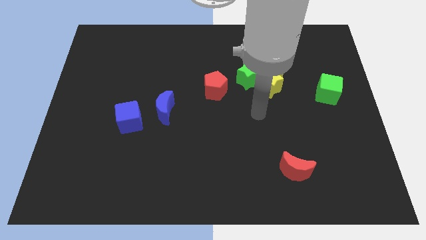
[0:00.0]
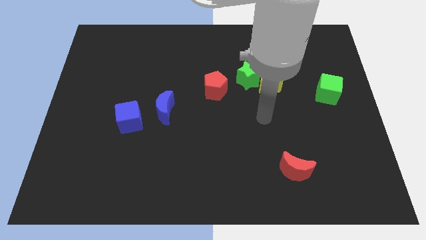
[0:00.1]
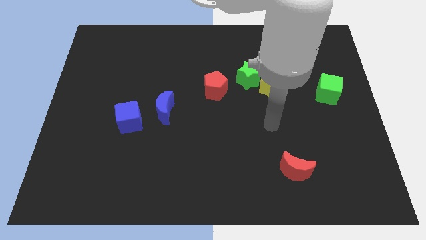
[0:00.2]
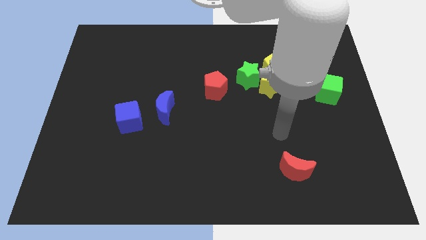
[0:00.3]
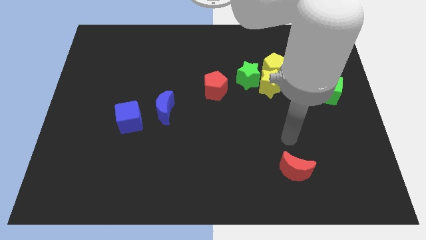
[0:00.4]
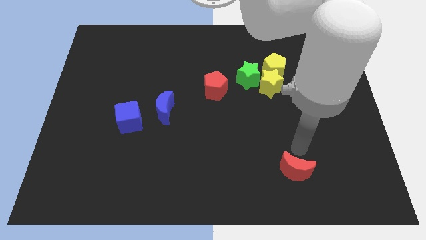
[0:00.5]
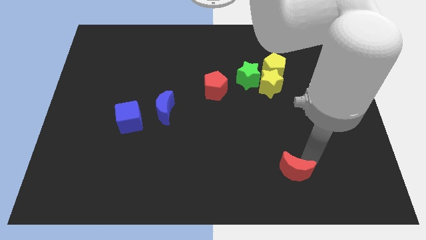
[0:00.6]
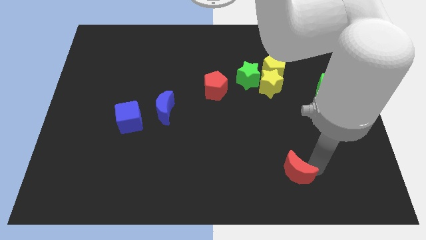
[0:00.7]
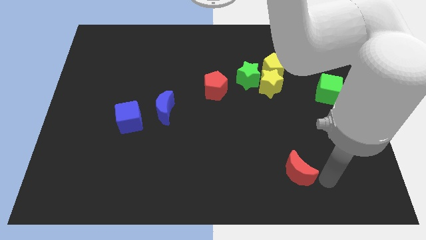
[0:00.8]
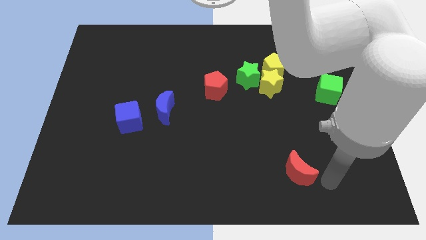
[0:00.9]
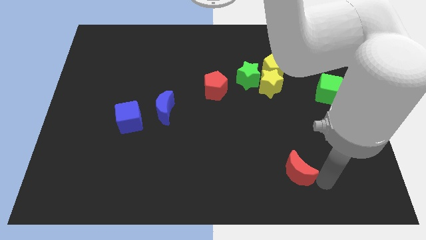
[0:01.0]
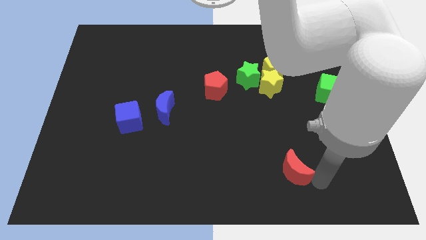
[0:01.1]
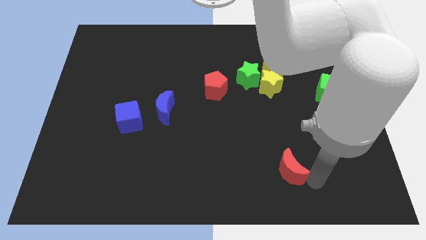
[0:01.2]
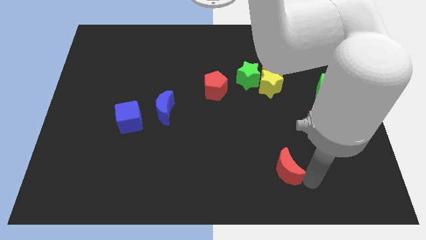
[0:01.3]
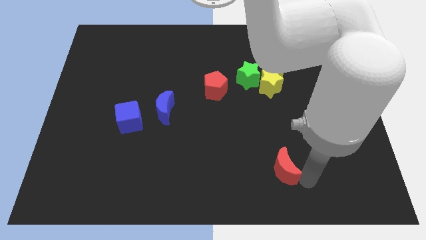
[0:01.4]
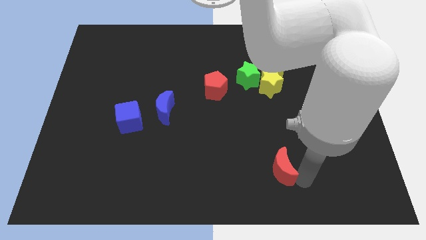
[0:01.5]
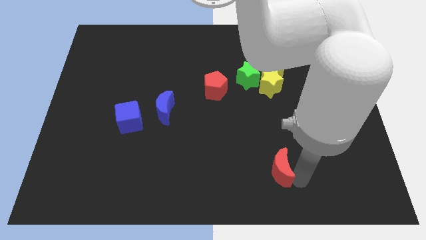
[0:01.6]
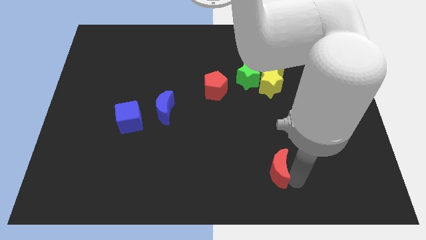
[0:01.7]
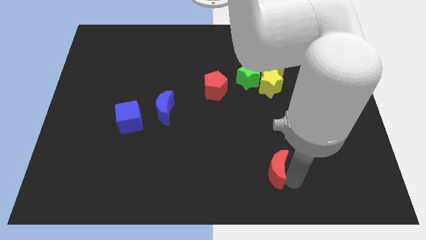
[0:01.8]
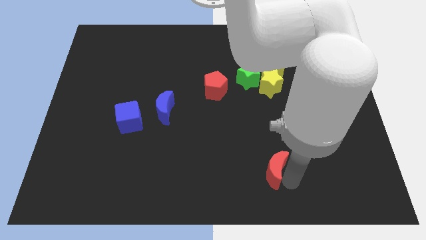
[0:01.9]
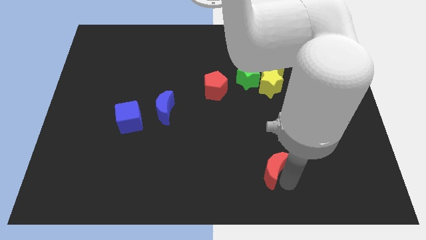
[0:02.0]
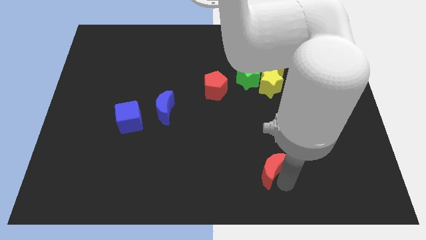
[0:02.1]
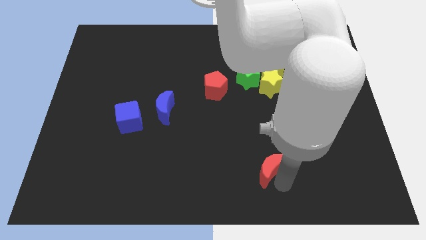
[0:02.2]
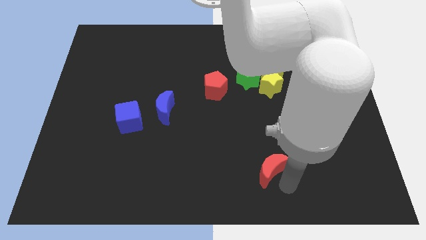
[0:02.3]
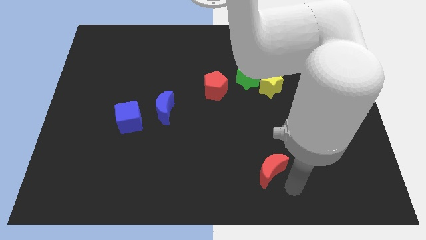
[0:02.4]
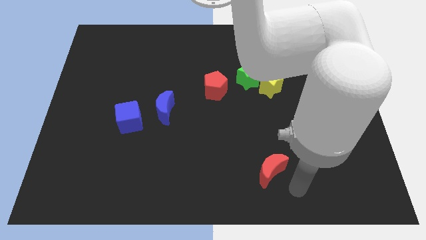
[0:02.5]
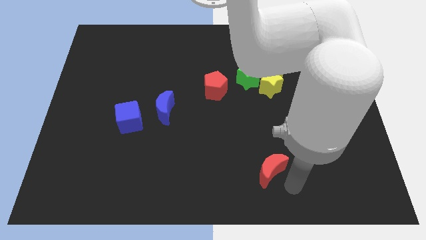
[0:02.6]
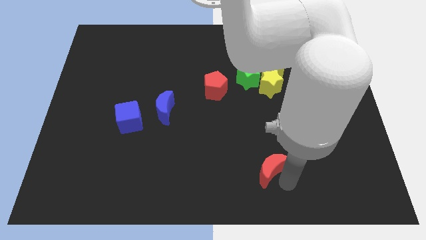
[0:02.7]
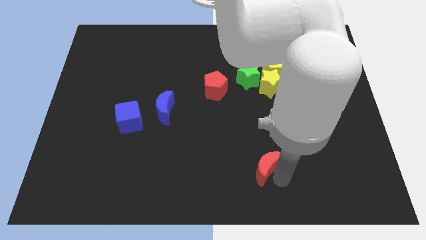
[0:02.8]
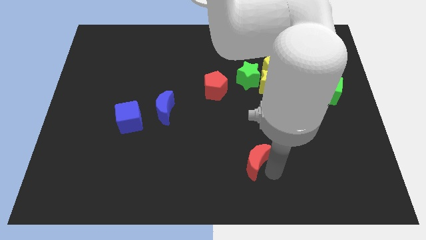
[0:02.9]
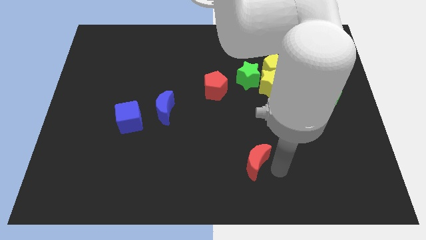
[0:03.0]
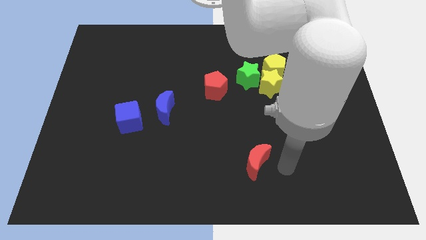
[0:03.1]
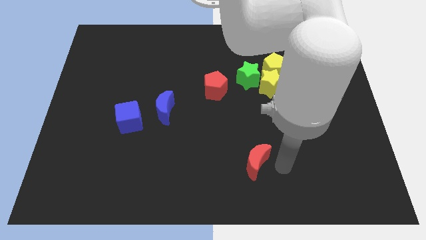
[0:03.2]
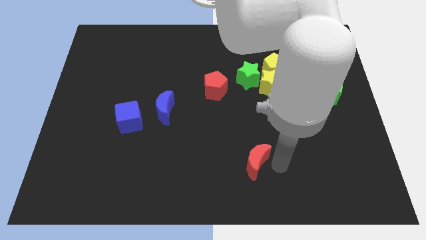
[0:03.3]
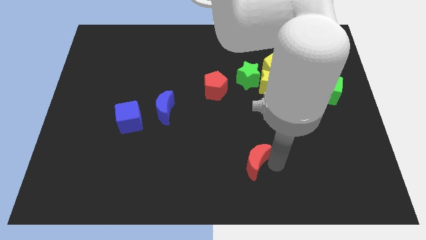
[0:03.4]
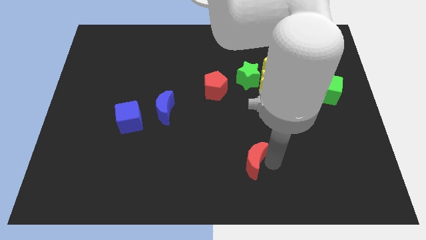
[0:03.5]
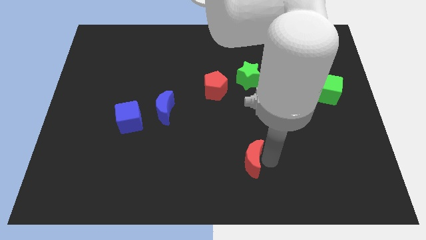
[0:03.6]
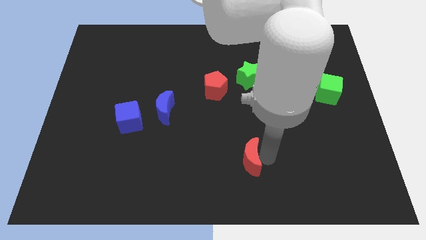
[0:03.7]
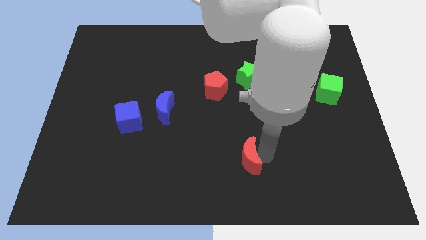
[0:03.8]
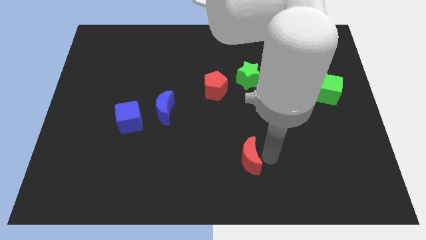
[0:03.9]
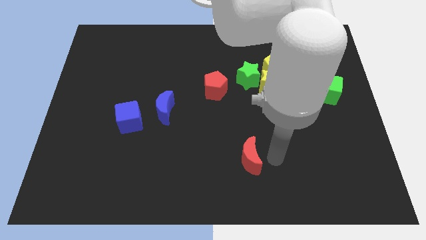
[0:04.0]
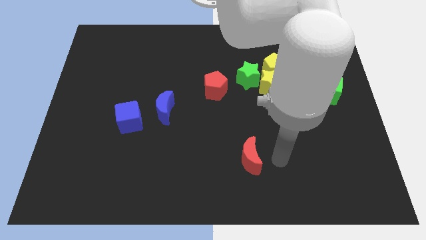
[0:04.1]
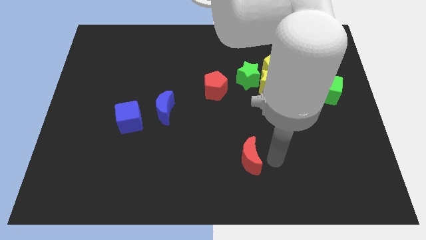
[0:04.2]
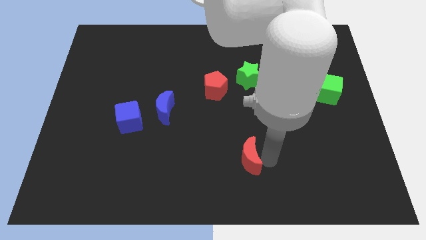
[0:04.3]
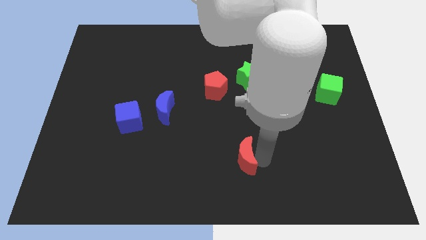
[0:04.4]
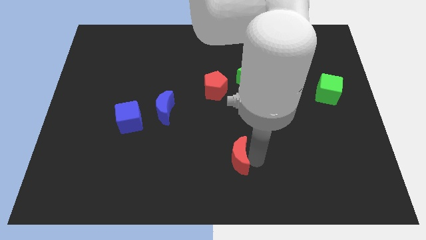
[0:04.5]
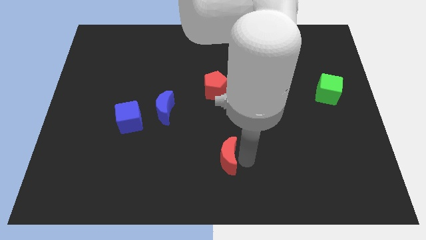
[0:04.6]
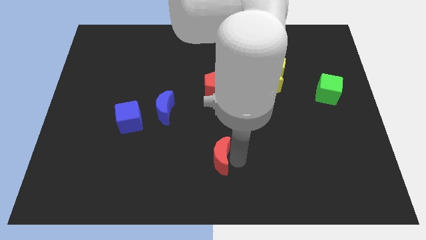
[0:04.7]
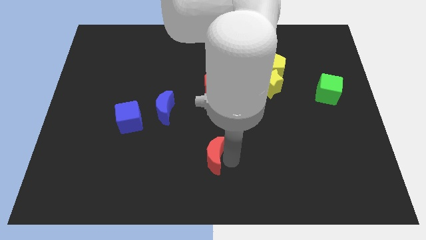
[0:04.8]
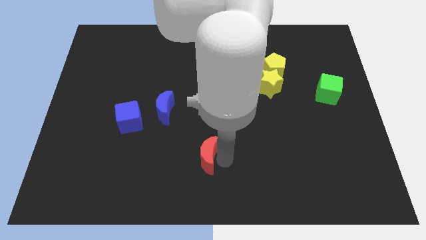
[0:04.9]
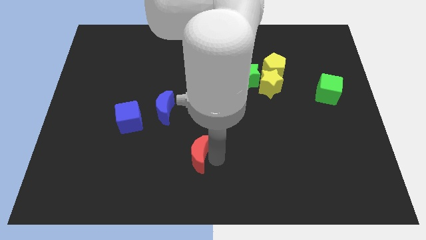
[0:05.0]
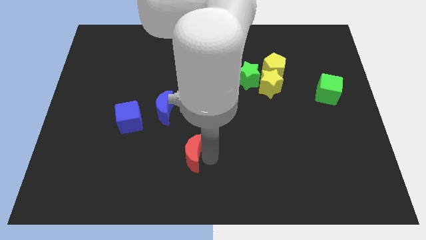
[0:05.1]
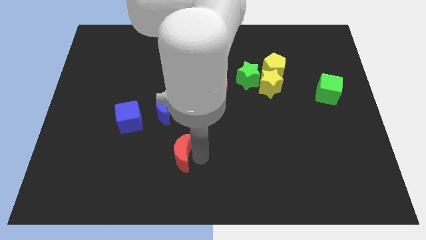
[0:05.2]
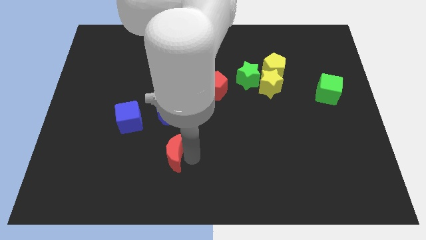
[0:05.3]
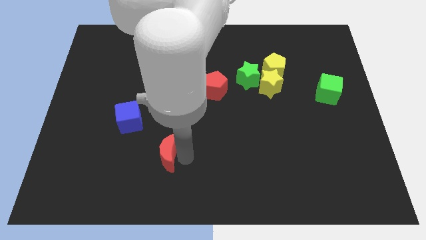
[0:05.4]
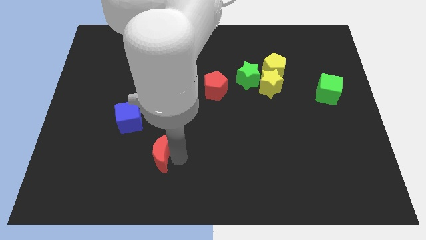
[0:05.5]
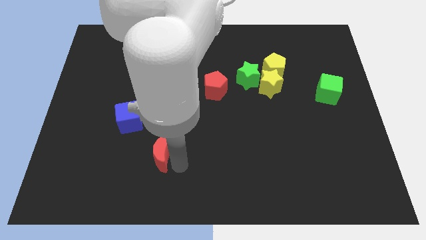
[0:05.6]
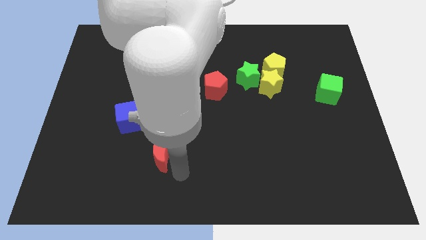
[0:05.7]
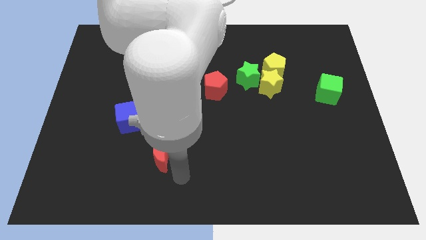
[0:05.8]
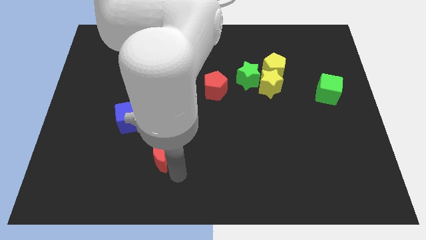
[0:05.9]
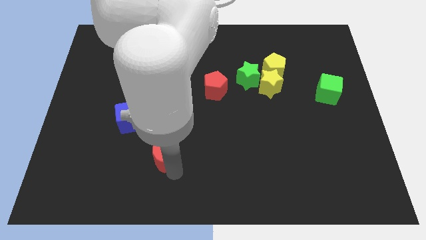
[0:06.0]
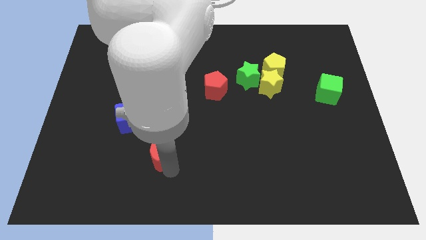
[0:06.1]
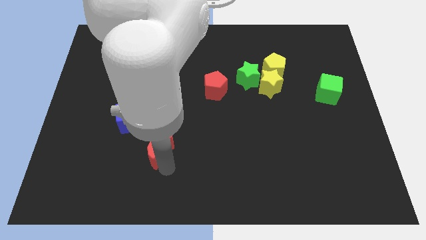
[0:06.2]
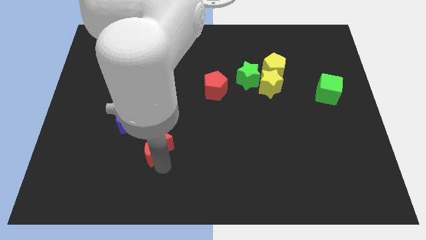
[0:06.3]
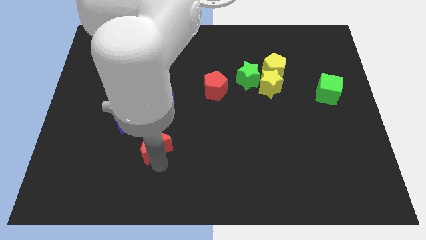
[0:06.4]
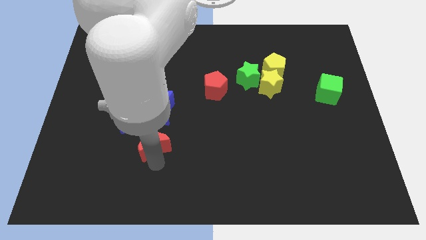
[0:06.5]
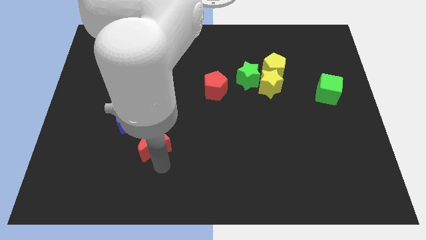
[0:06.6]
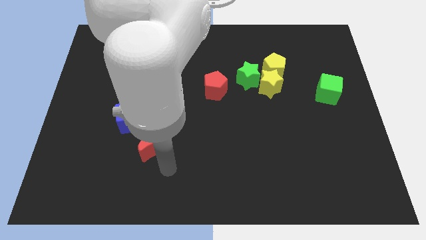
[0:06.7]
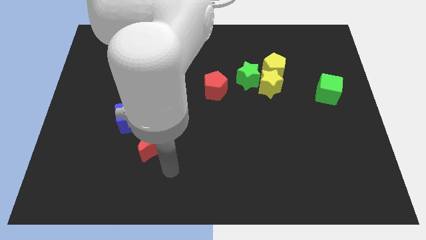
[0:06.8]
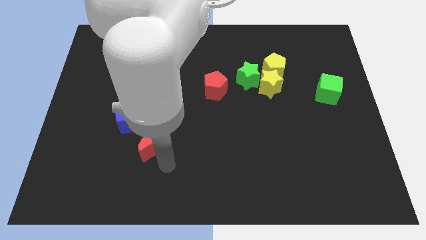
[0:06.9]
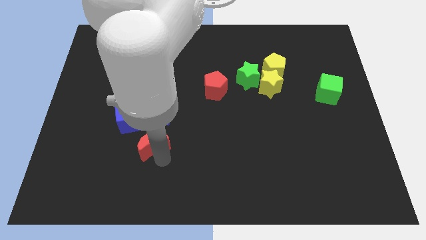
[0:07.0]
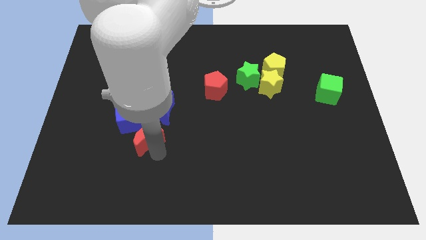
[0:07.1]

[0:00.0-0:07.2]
move the red moon to the bottom left of the blue moon
